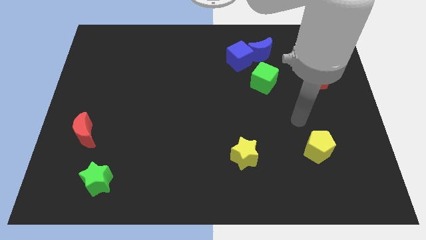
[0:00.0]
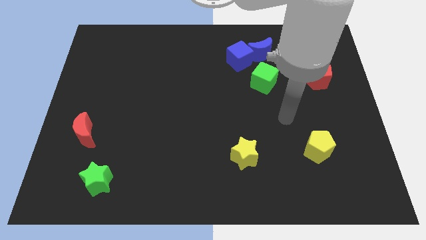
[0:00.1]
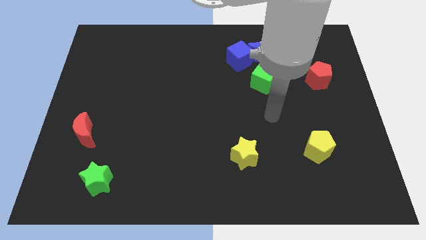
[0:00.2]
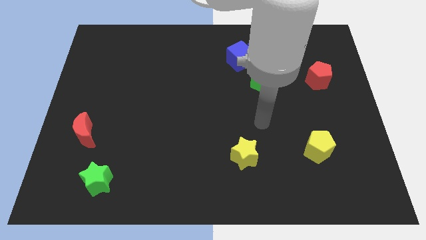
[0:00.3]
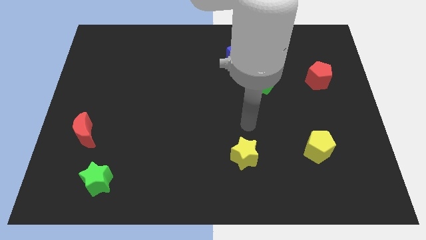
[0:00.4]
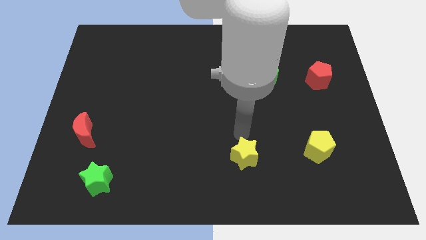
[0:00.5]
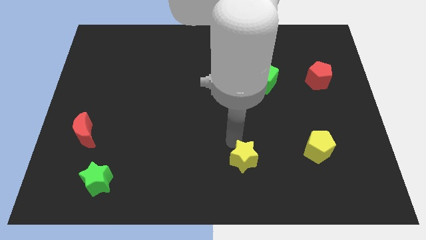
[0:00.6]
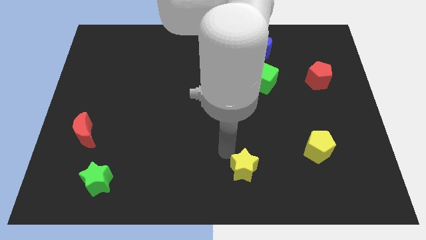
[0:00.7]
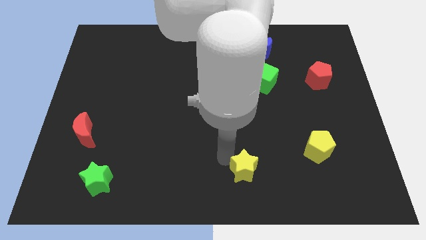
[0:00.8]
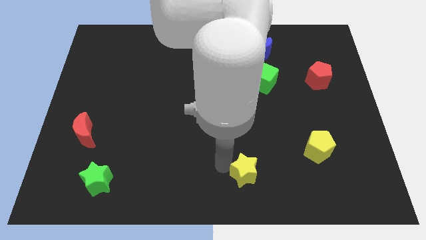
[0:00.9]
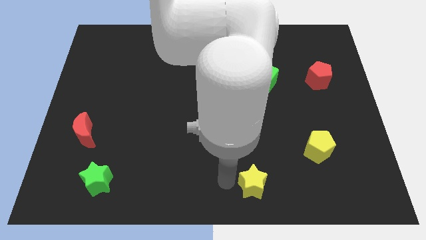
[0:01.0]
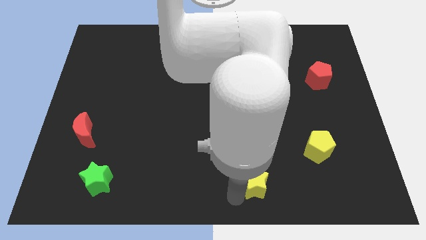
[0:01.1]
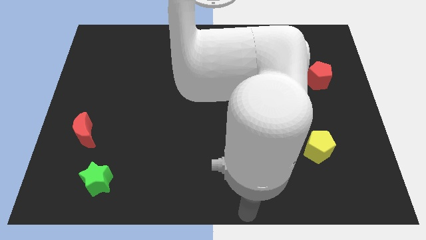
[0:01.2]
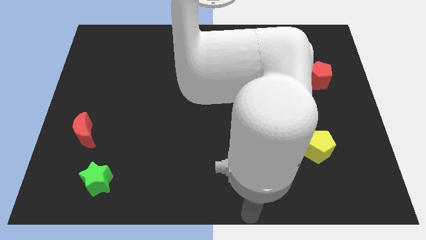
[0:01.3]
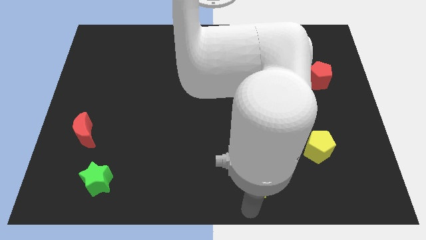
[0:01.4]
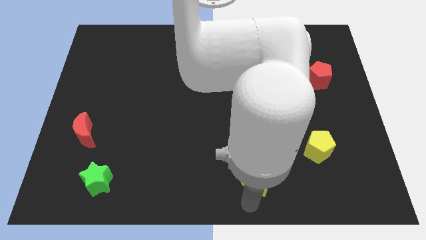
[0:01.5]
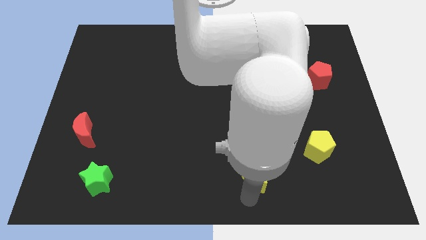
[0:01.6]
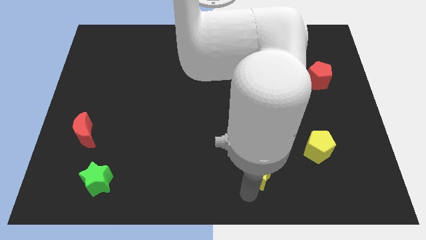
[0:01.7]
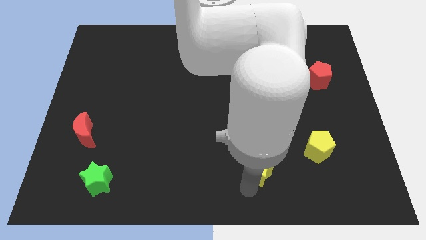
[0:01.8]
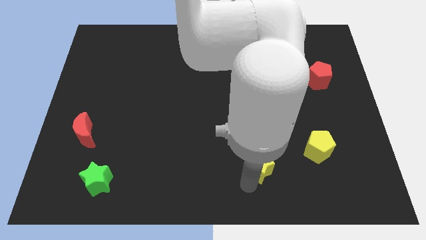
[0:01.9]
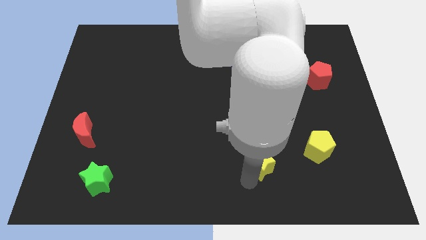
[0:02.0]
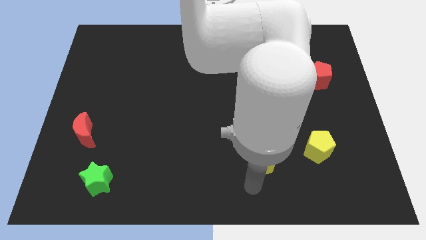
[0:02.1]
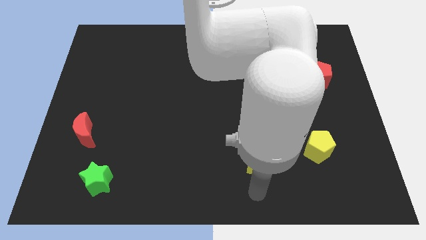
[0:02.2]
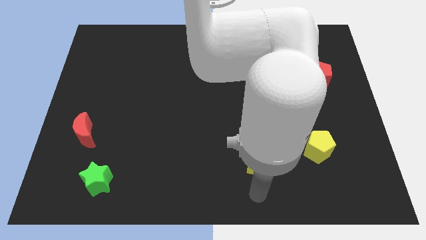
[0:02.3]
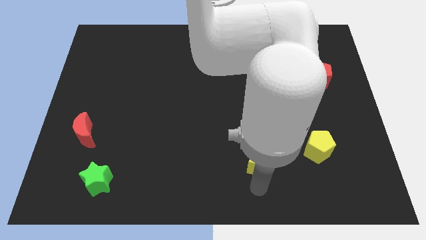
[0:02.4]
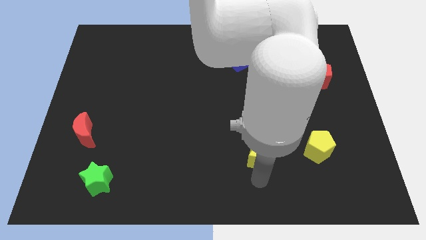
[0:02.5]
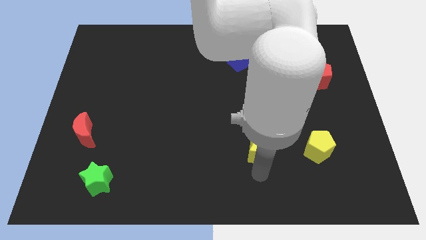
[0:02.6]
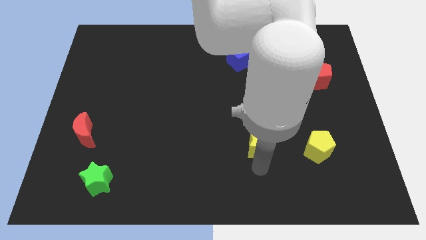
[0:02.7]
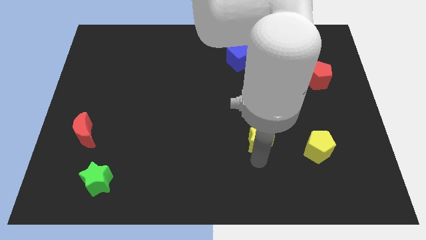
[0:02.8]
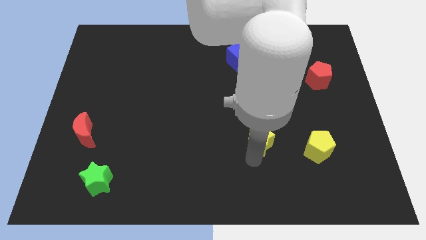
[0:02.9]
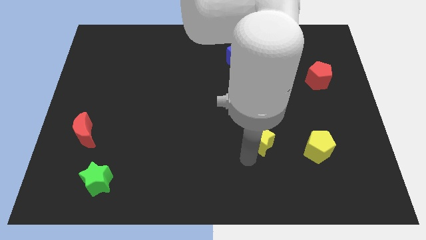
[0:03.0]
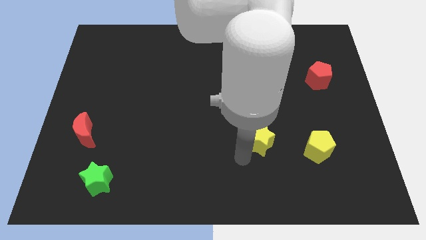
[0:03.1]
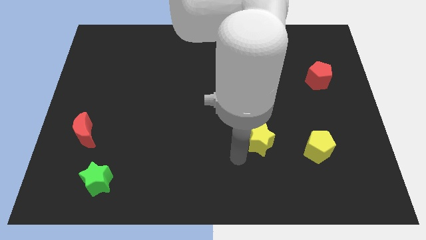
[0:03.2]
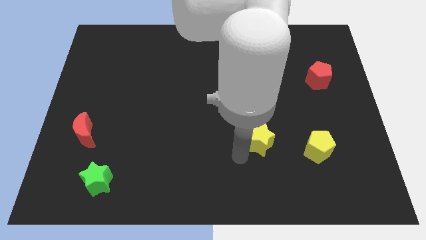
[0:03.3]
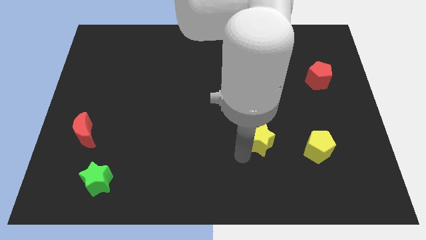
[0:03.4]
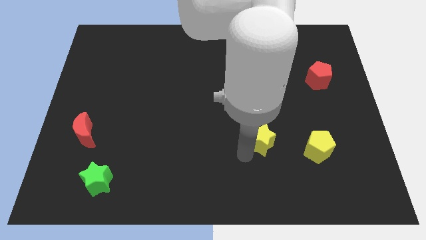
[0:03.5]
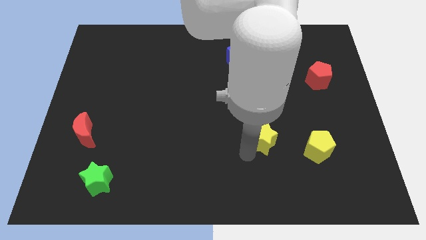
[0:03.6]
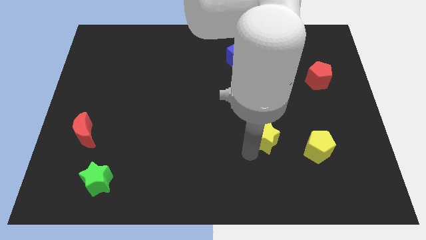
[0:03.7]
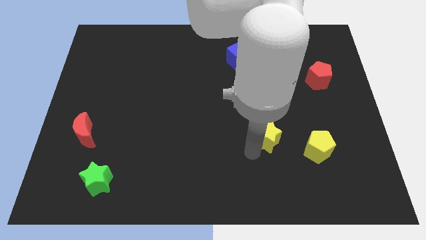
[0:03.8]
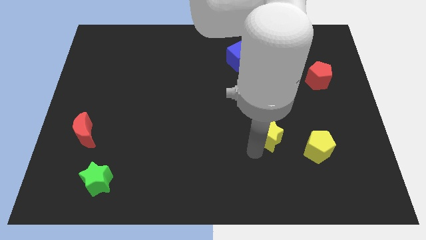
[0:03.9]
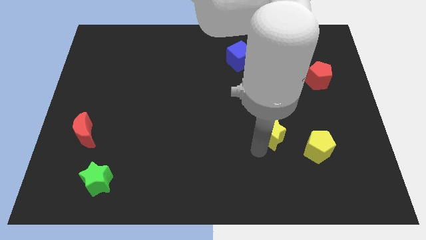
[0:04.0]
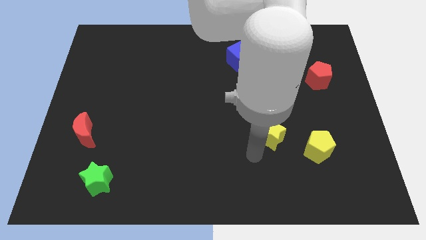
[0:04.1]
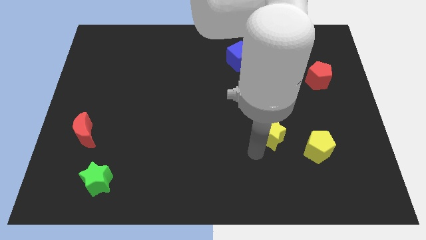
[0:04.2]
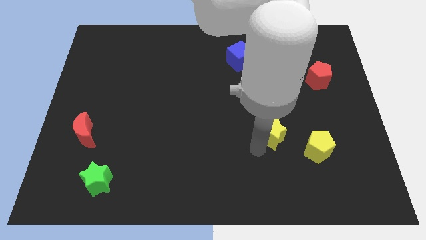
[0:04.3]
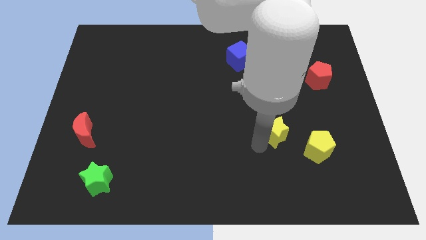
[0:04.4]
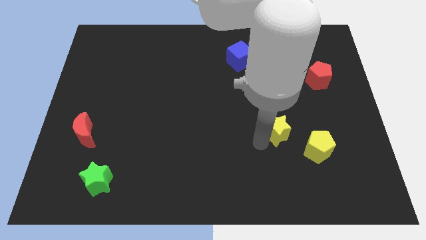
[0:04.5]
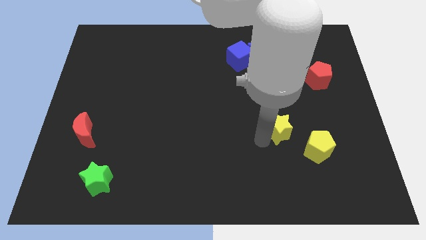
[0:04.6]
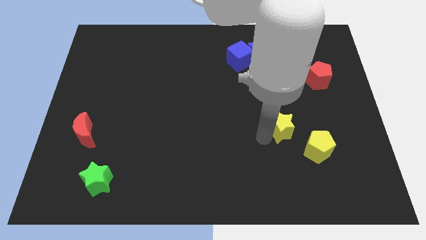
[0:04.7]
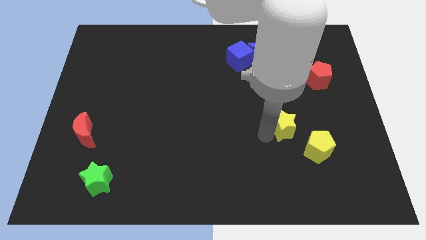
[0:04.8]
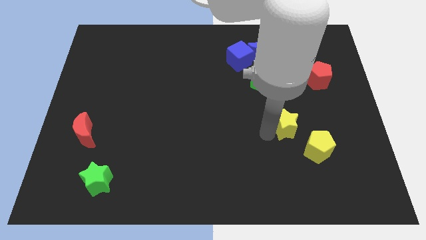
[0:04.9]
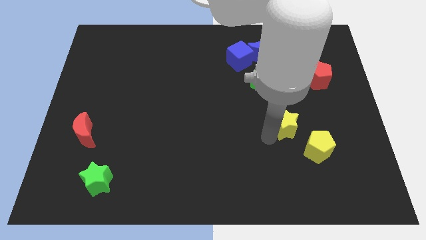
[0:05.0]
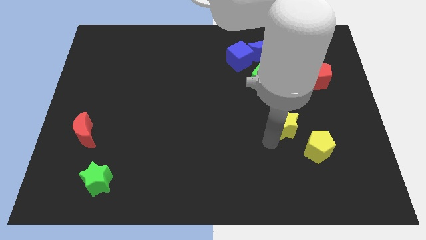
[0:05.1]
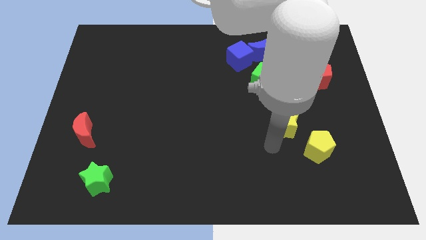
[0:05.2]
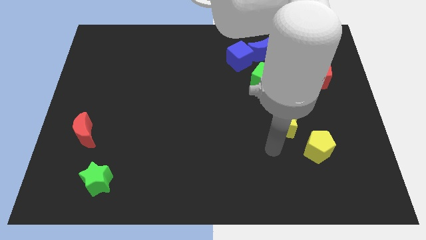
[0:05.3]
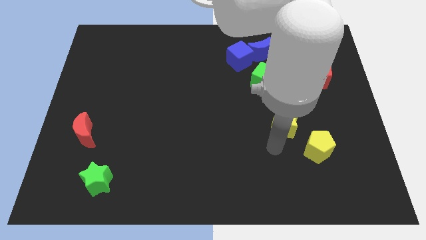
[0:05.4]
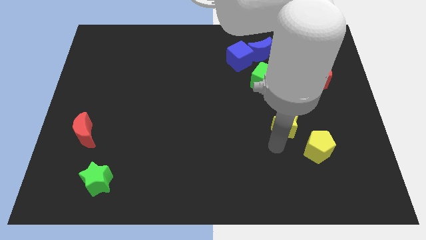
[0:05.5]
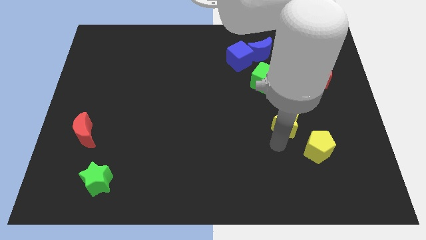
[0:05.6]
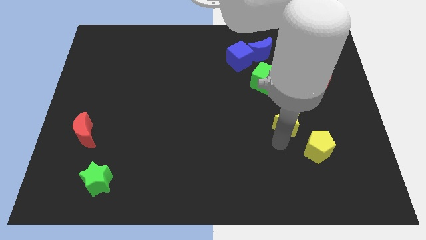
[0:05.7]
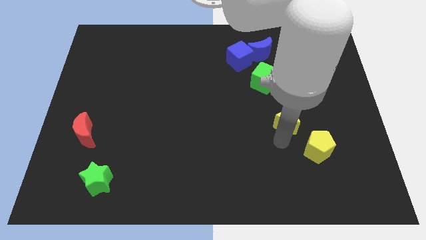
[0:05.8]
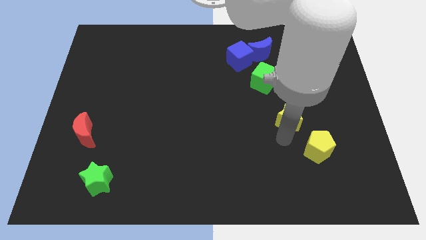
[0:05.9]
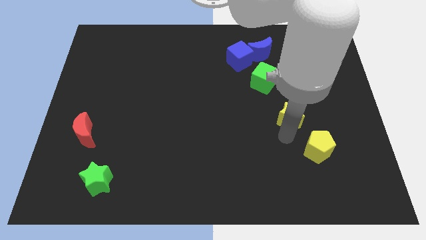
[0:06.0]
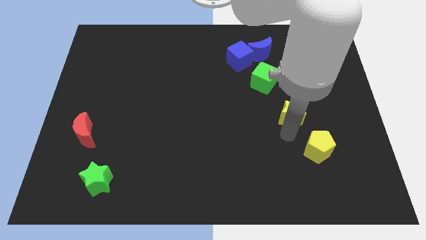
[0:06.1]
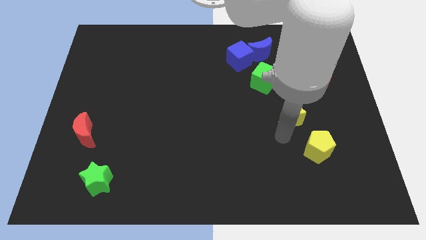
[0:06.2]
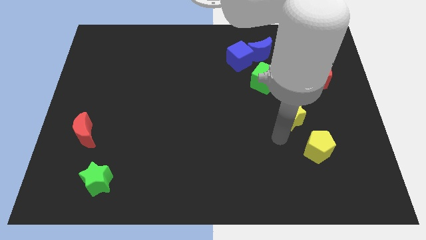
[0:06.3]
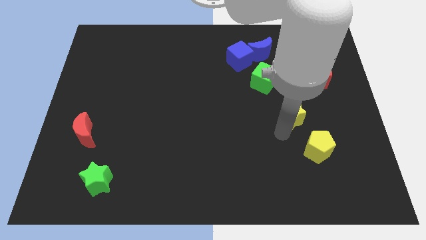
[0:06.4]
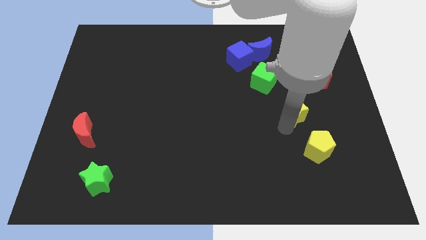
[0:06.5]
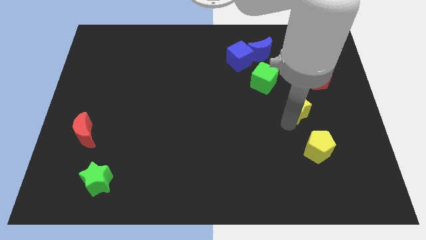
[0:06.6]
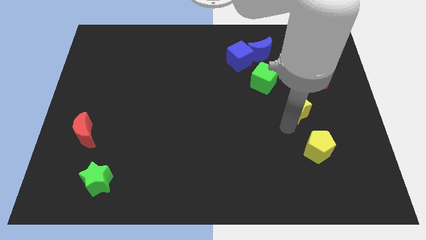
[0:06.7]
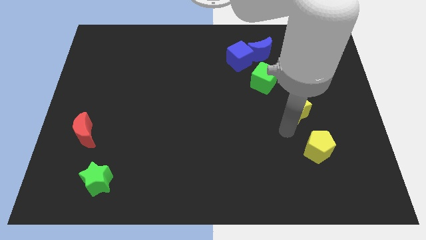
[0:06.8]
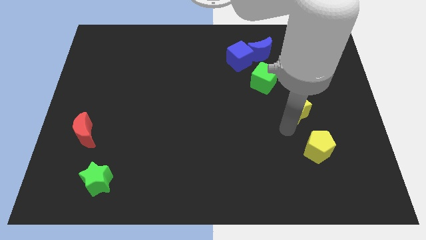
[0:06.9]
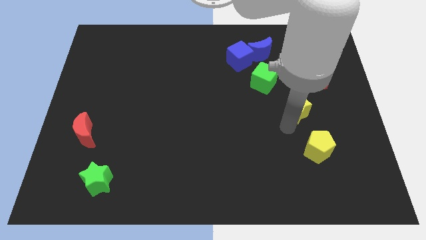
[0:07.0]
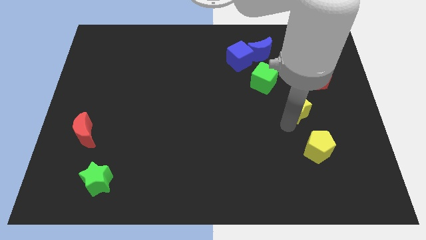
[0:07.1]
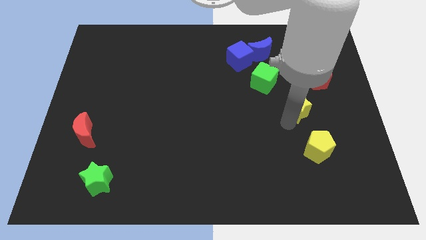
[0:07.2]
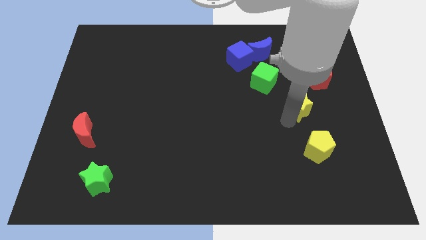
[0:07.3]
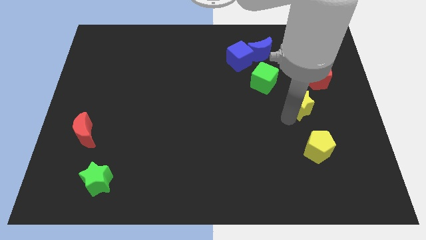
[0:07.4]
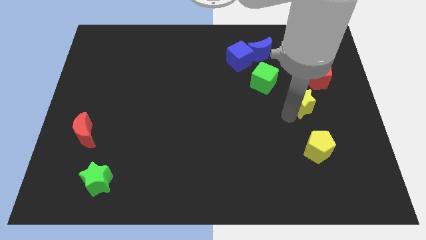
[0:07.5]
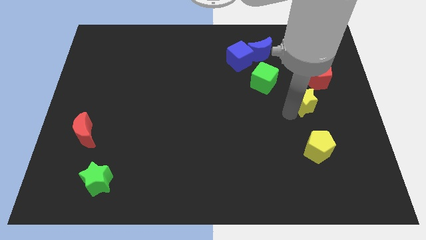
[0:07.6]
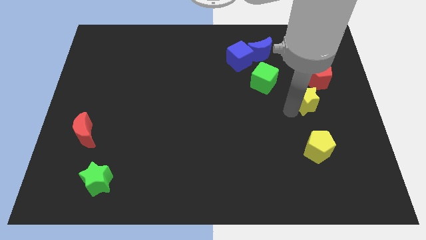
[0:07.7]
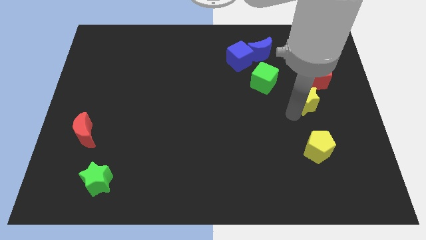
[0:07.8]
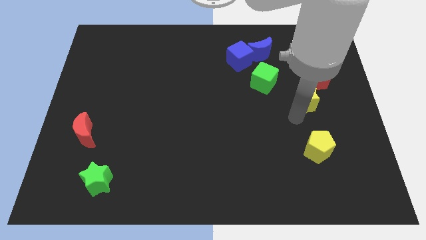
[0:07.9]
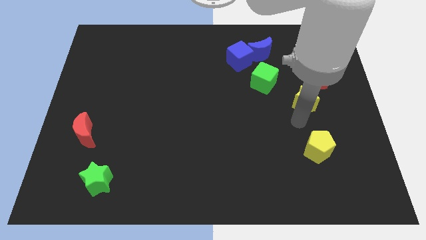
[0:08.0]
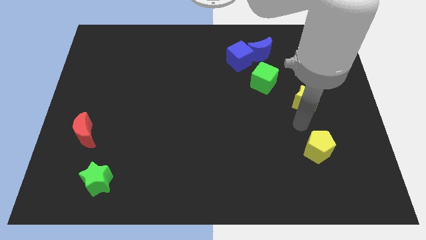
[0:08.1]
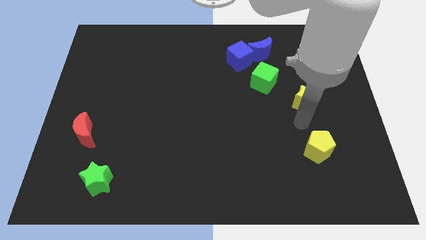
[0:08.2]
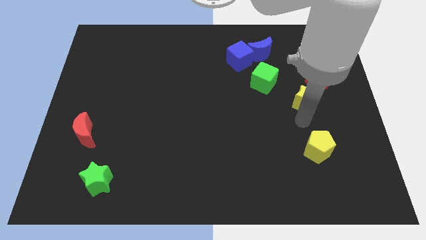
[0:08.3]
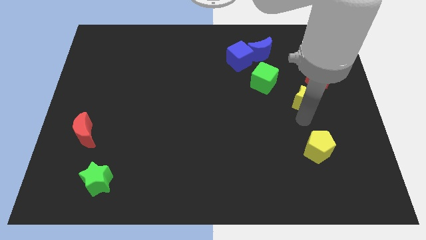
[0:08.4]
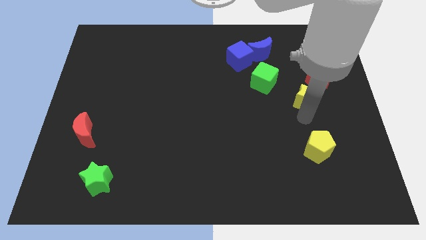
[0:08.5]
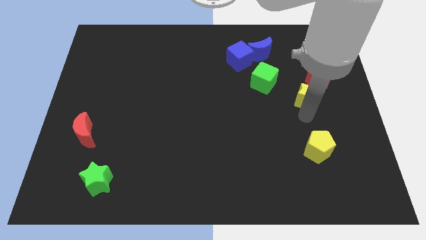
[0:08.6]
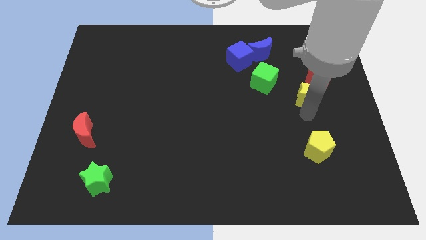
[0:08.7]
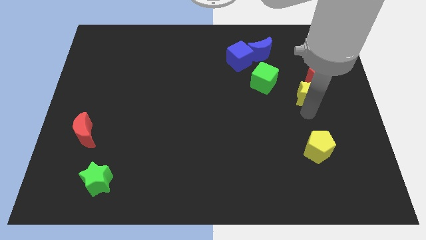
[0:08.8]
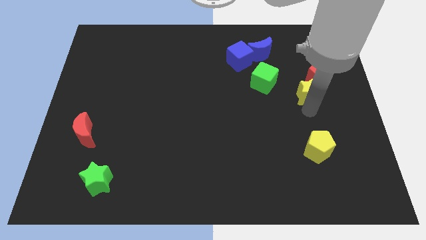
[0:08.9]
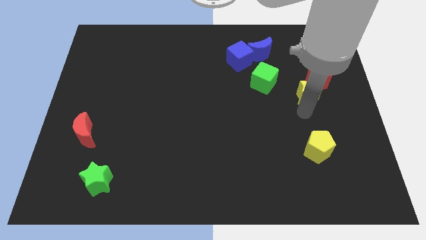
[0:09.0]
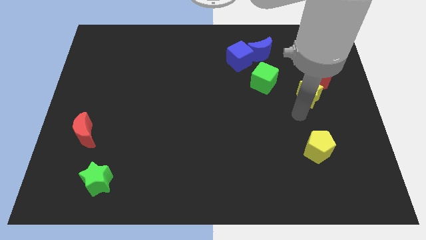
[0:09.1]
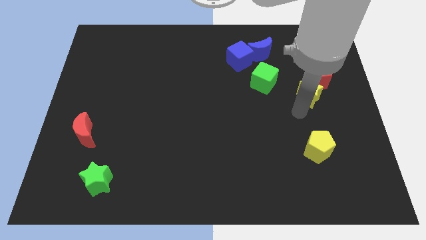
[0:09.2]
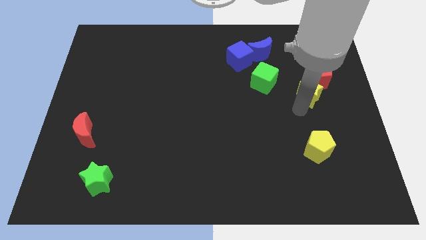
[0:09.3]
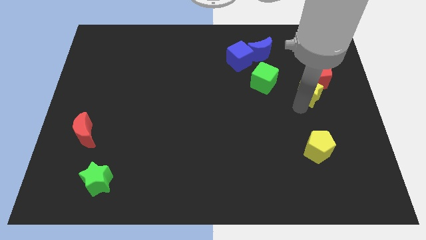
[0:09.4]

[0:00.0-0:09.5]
move the yellow star to the red pentagon
